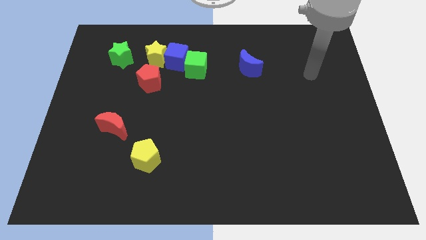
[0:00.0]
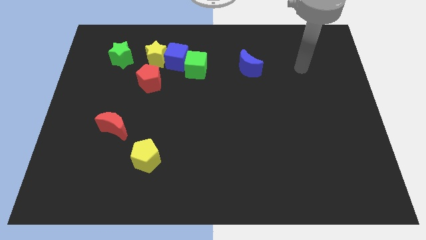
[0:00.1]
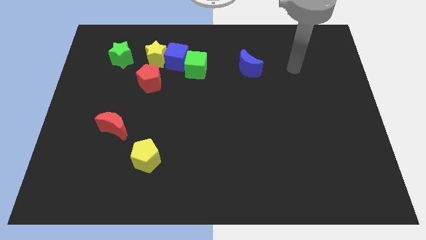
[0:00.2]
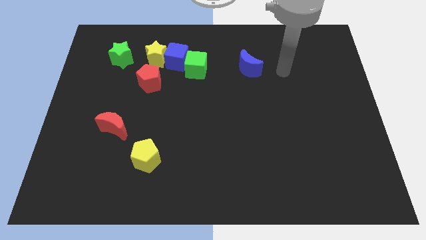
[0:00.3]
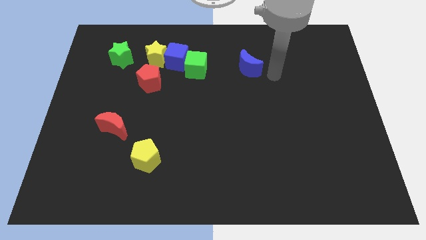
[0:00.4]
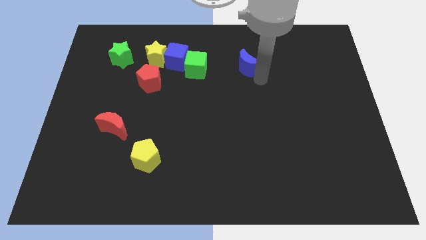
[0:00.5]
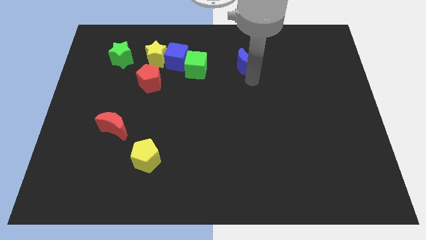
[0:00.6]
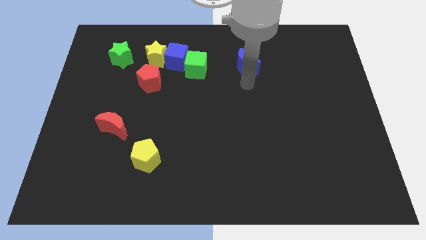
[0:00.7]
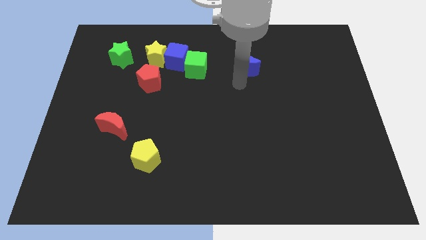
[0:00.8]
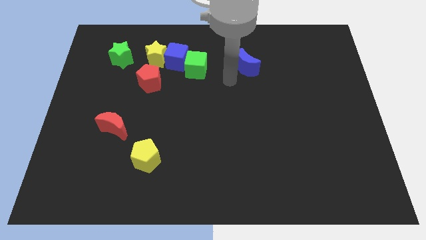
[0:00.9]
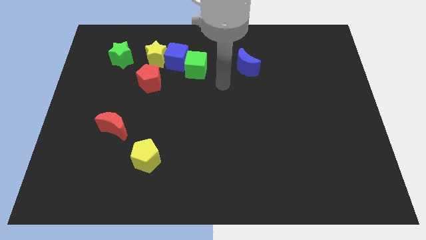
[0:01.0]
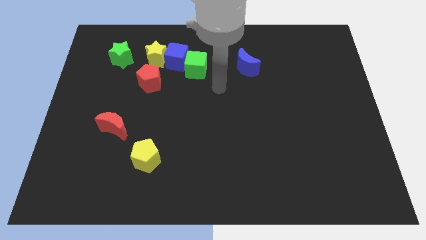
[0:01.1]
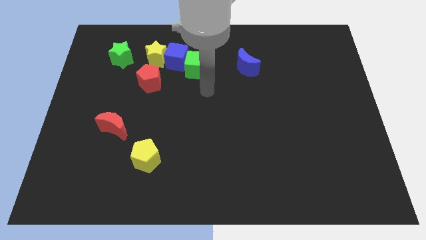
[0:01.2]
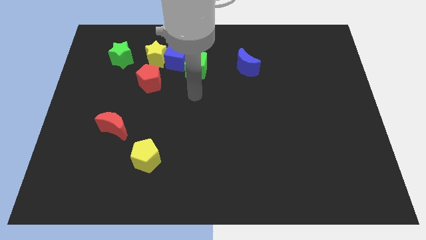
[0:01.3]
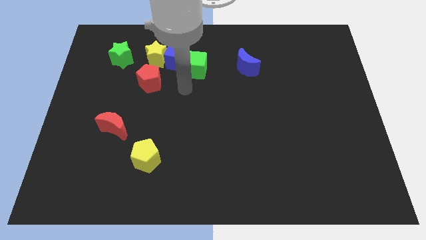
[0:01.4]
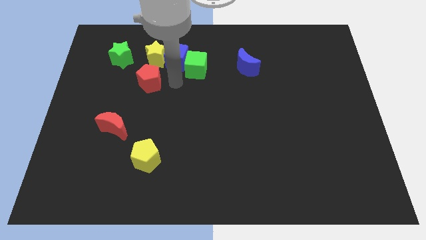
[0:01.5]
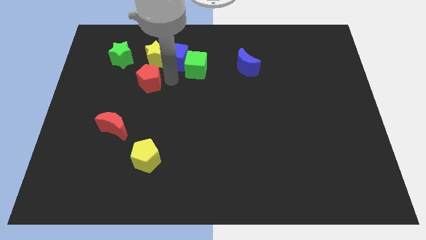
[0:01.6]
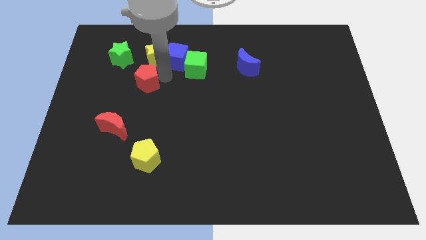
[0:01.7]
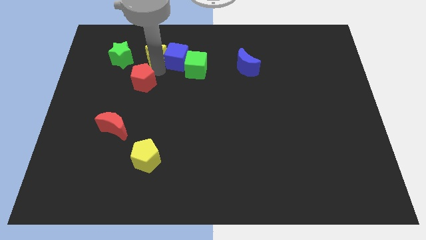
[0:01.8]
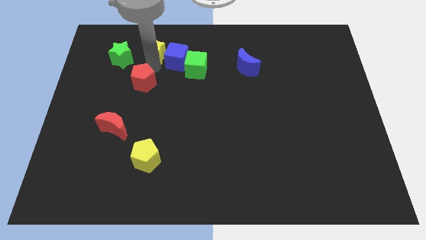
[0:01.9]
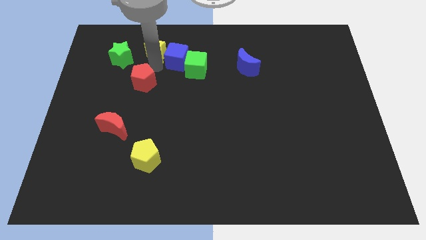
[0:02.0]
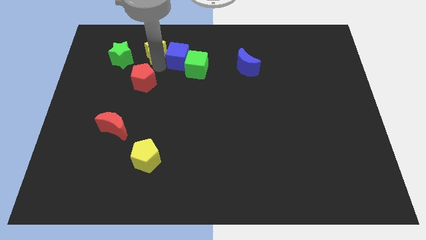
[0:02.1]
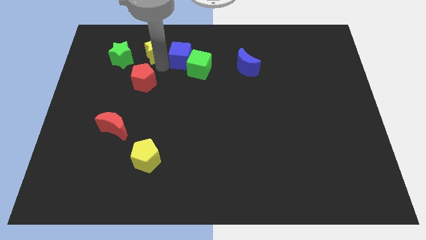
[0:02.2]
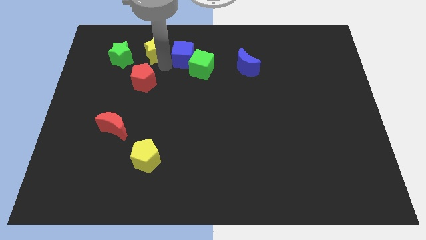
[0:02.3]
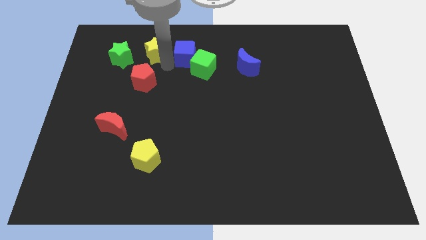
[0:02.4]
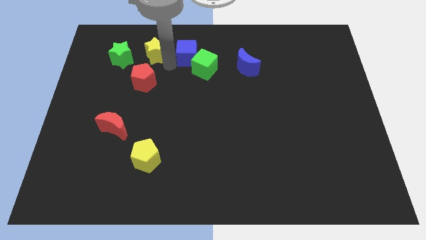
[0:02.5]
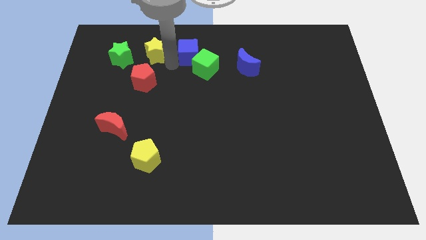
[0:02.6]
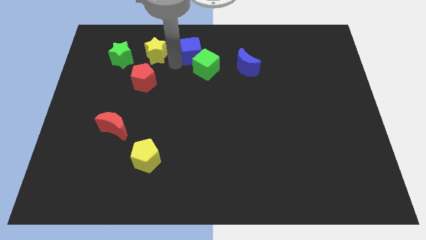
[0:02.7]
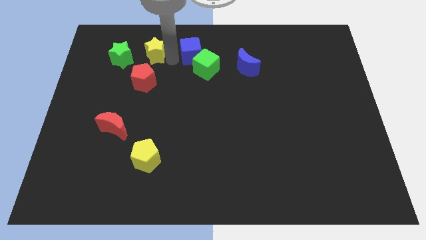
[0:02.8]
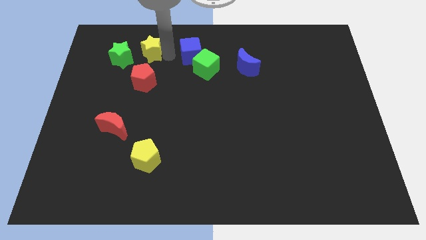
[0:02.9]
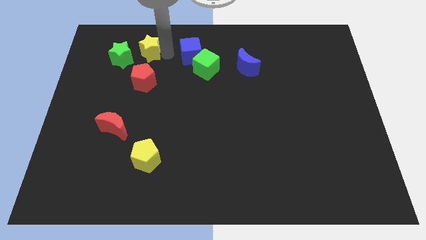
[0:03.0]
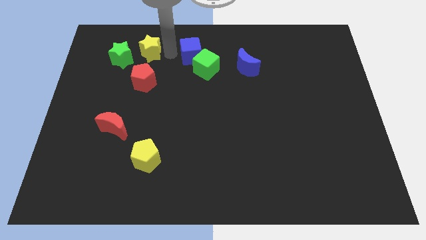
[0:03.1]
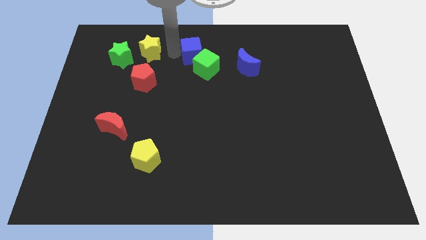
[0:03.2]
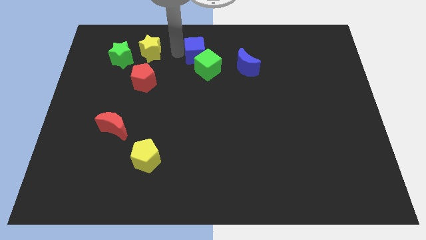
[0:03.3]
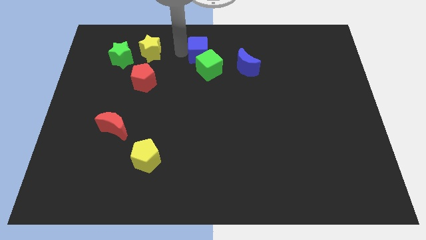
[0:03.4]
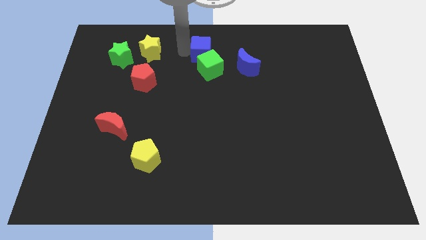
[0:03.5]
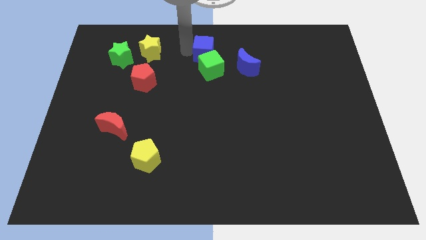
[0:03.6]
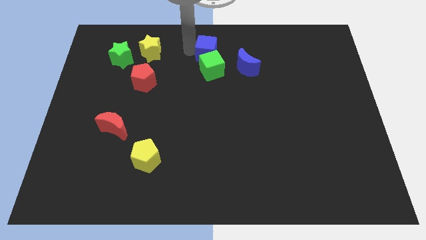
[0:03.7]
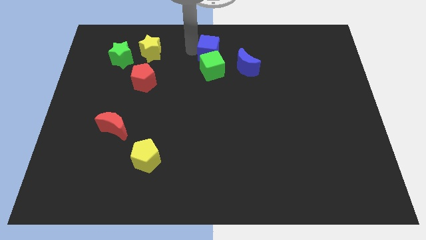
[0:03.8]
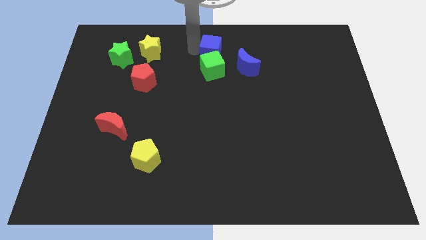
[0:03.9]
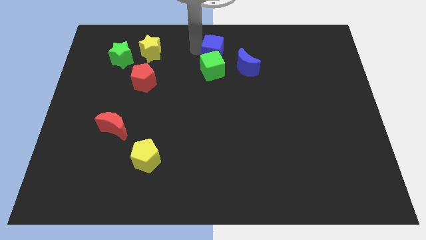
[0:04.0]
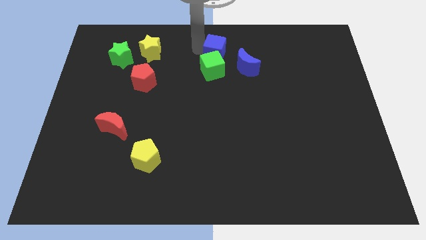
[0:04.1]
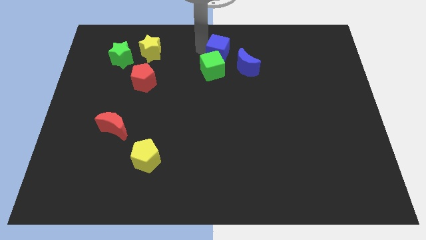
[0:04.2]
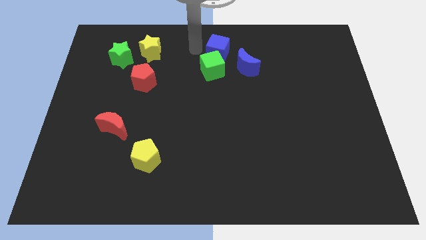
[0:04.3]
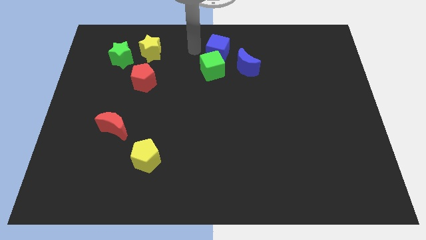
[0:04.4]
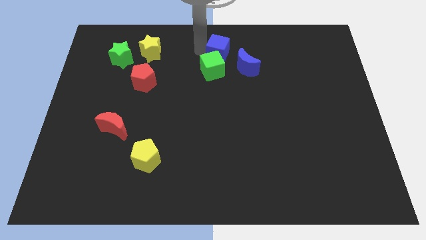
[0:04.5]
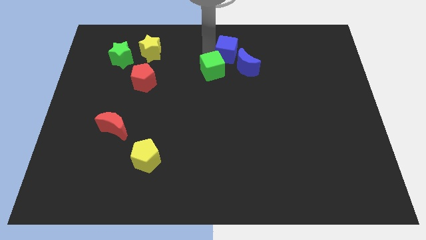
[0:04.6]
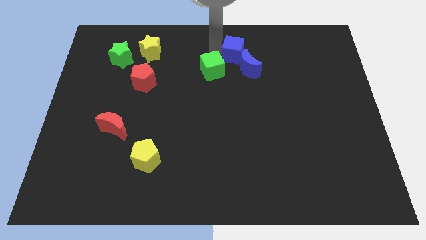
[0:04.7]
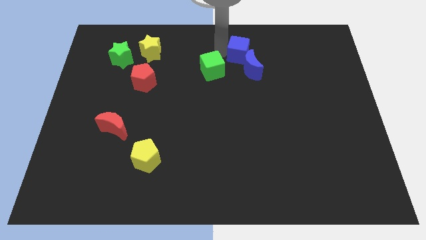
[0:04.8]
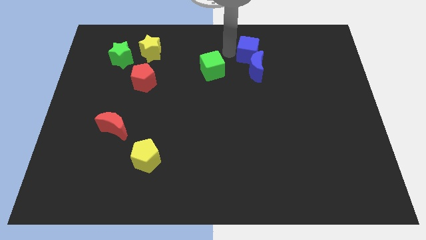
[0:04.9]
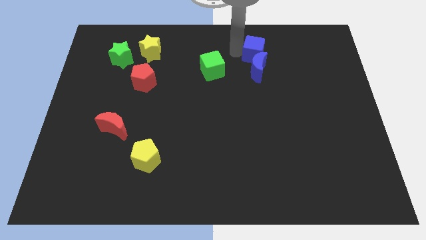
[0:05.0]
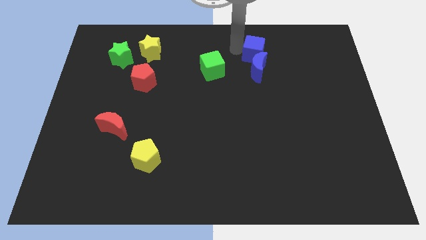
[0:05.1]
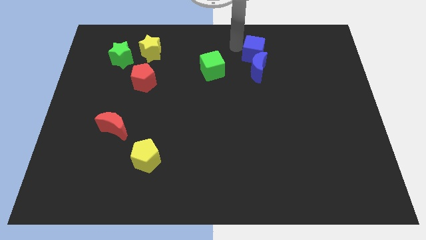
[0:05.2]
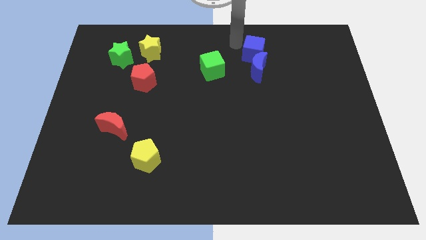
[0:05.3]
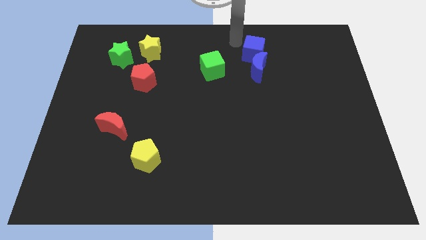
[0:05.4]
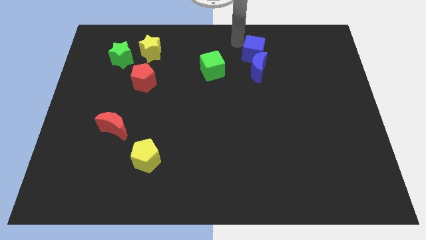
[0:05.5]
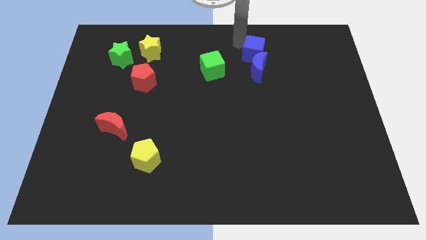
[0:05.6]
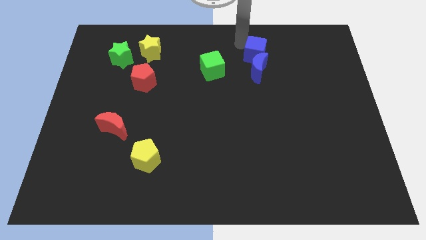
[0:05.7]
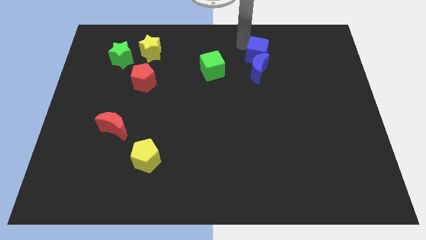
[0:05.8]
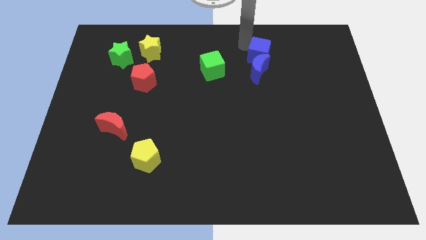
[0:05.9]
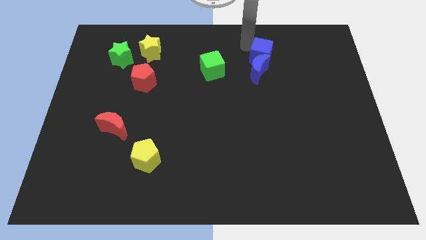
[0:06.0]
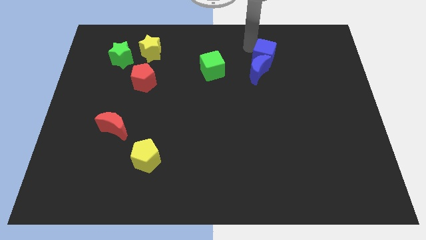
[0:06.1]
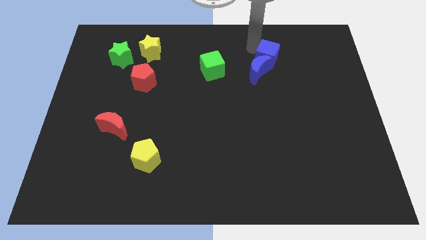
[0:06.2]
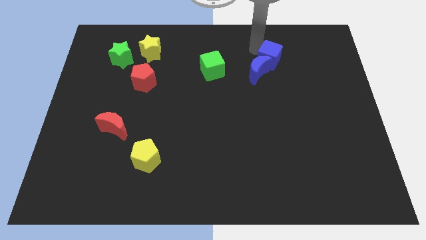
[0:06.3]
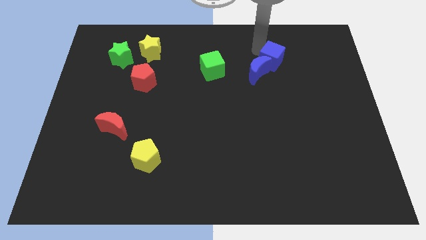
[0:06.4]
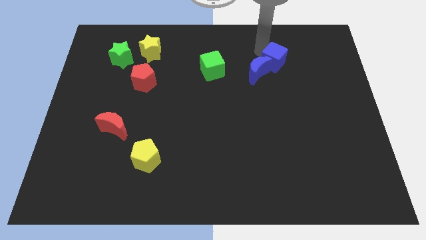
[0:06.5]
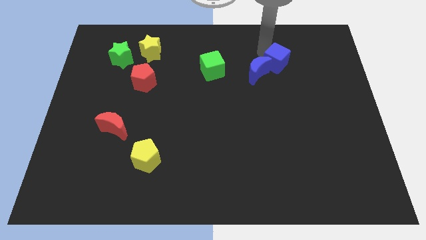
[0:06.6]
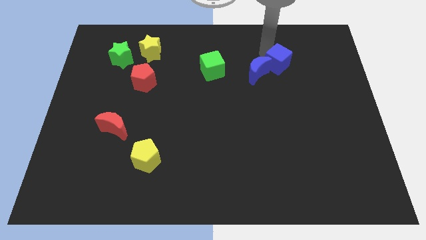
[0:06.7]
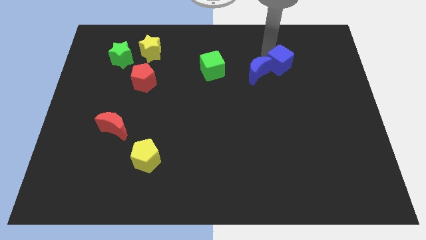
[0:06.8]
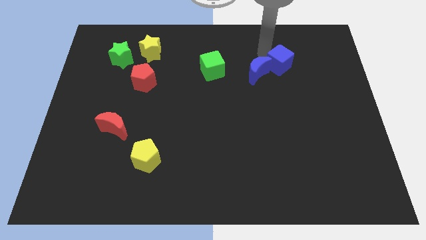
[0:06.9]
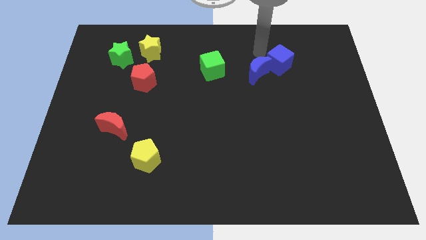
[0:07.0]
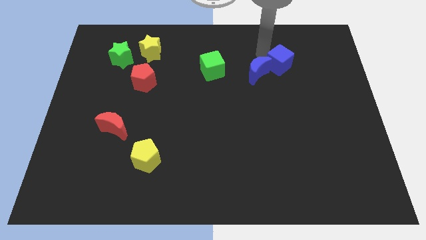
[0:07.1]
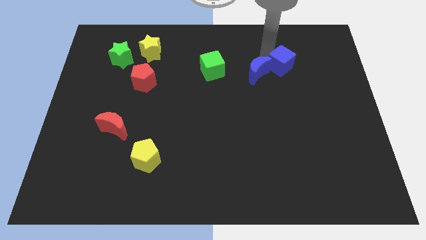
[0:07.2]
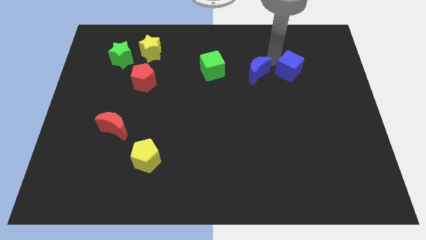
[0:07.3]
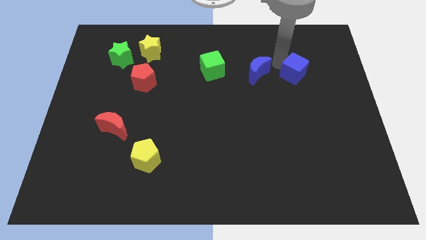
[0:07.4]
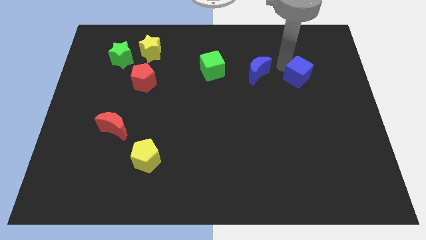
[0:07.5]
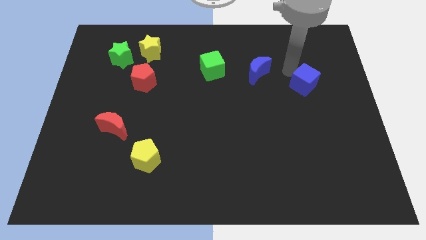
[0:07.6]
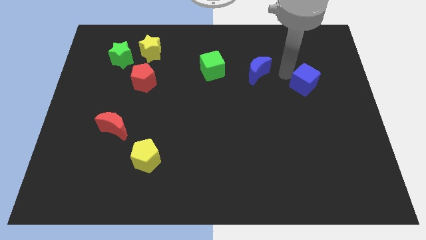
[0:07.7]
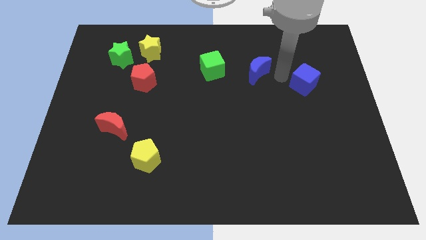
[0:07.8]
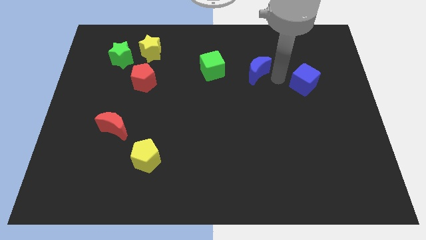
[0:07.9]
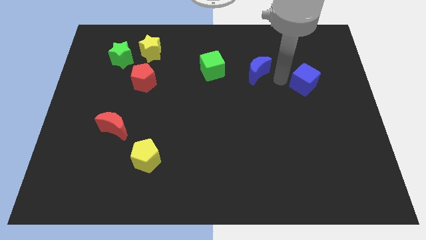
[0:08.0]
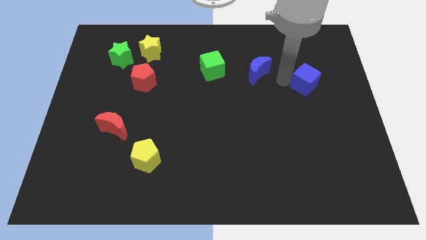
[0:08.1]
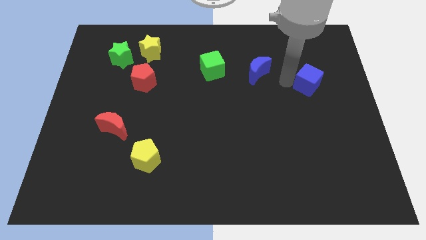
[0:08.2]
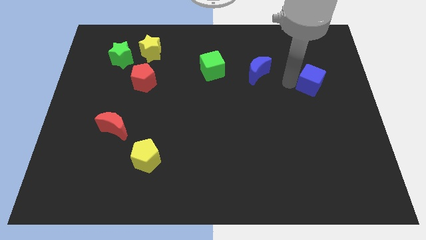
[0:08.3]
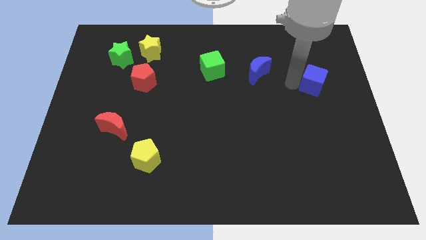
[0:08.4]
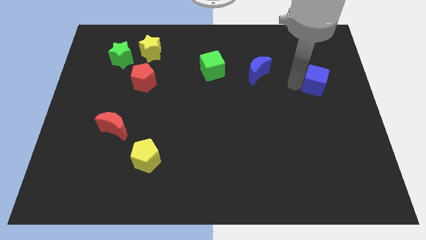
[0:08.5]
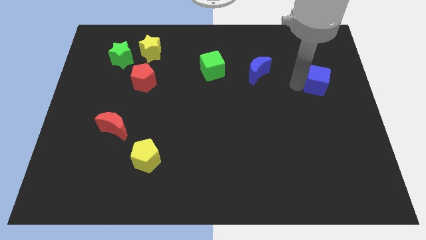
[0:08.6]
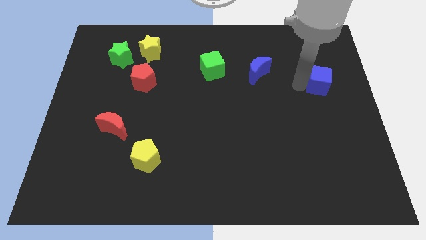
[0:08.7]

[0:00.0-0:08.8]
move the blue cube to the right side of the board
